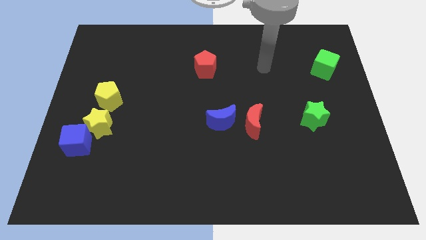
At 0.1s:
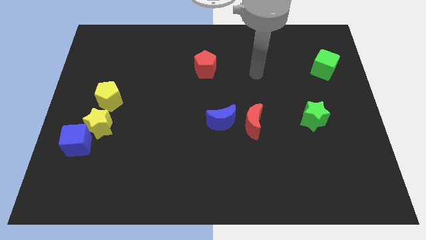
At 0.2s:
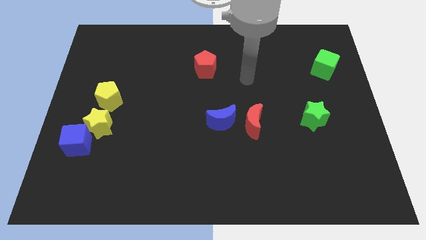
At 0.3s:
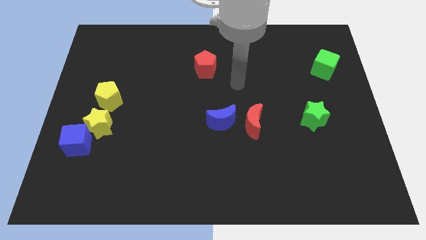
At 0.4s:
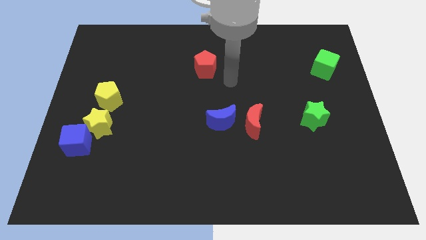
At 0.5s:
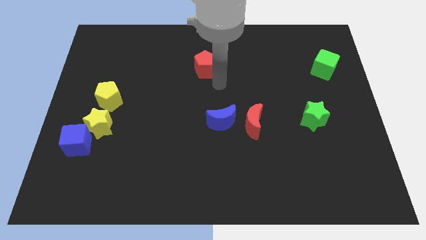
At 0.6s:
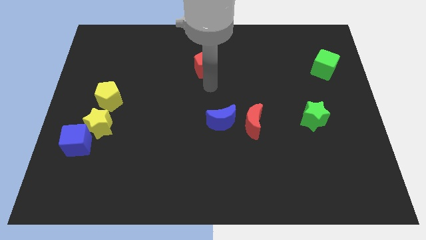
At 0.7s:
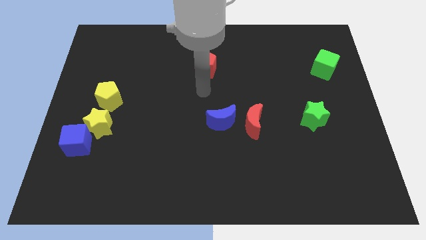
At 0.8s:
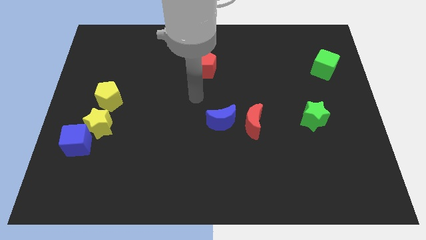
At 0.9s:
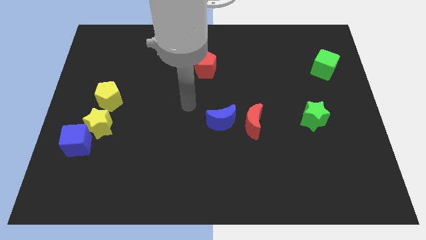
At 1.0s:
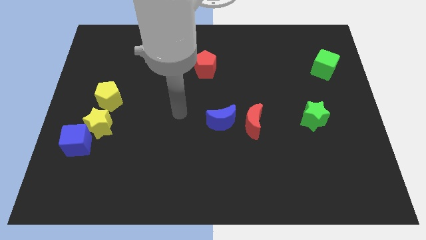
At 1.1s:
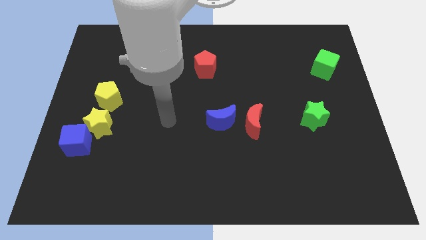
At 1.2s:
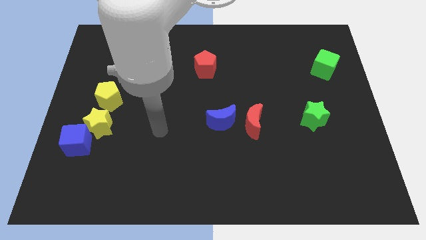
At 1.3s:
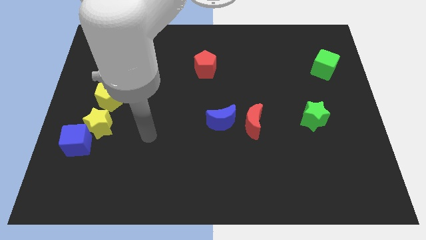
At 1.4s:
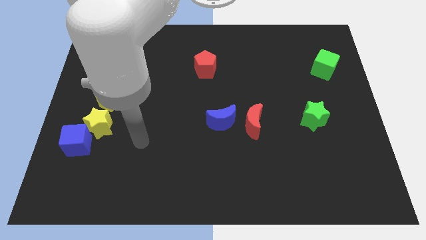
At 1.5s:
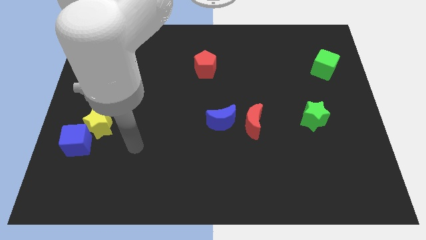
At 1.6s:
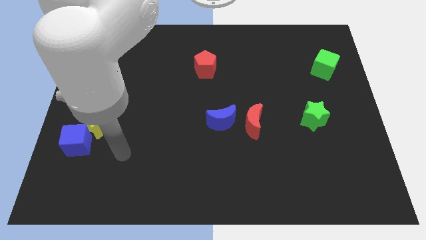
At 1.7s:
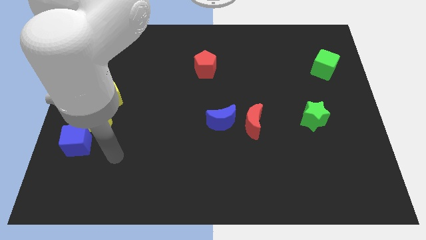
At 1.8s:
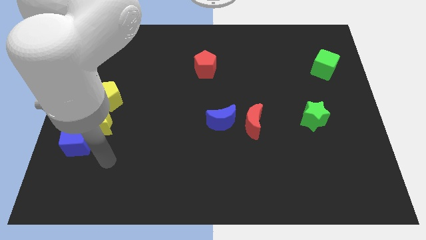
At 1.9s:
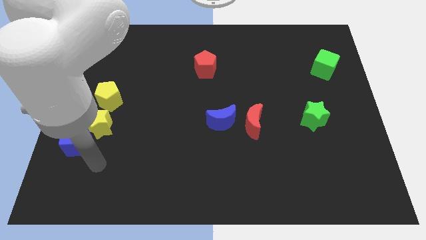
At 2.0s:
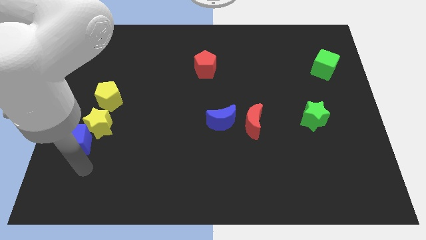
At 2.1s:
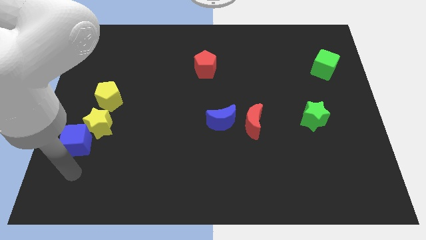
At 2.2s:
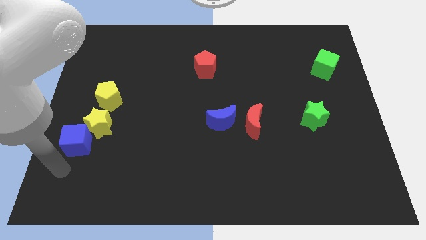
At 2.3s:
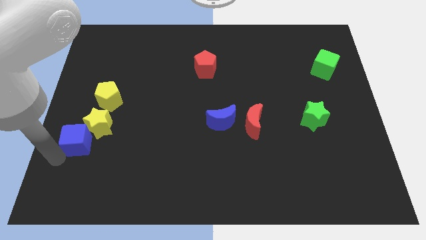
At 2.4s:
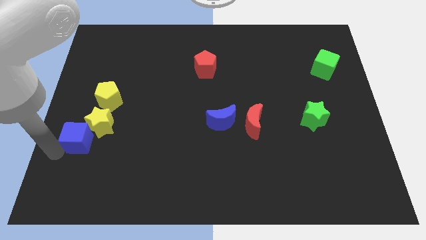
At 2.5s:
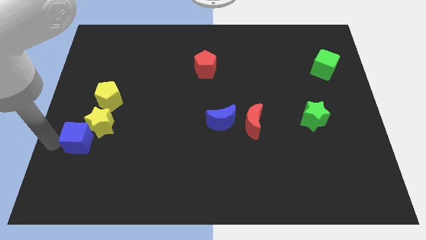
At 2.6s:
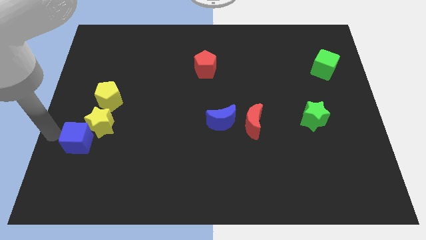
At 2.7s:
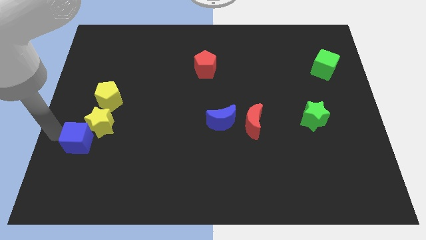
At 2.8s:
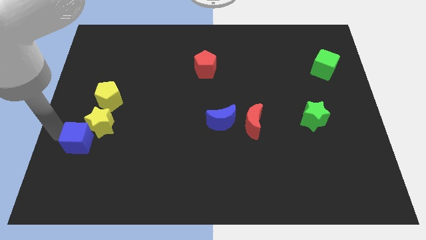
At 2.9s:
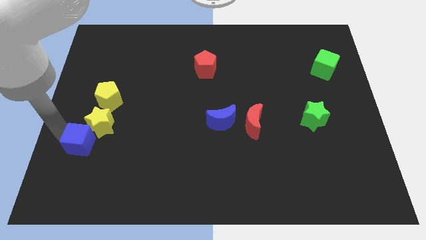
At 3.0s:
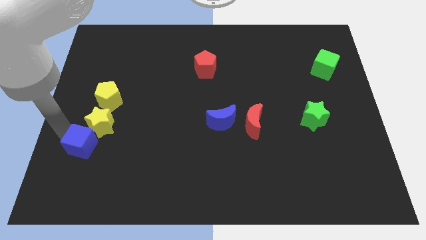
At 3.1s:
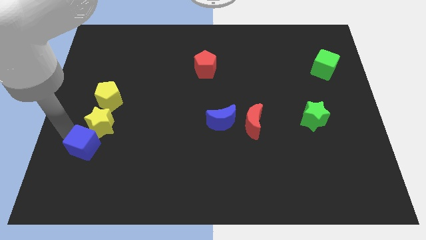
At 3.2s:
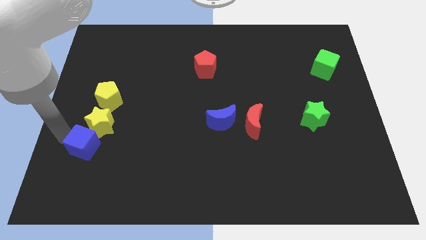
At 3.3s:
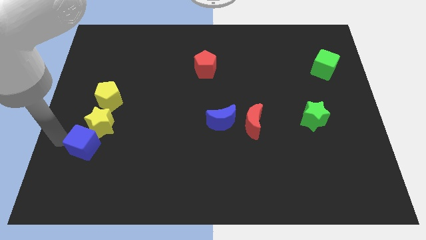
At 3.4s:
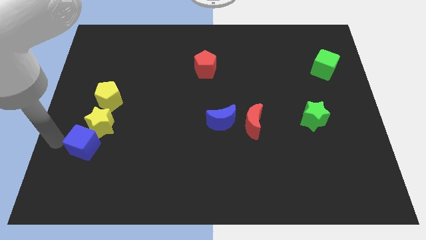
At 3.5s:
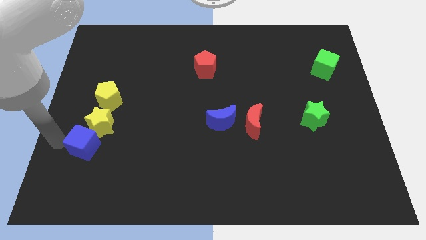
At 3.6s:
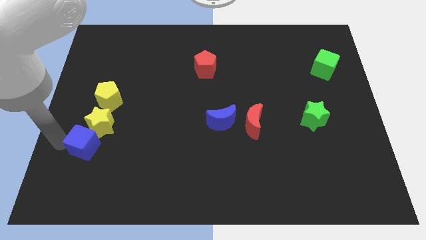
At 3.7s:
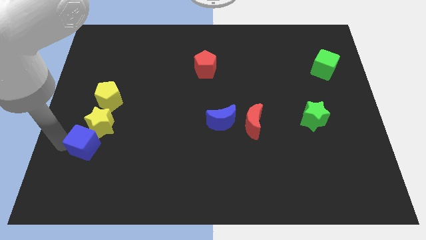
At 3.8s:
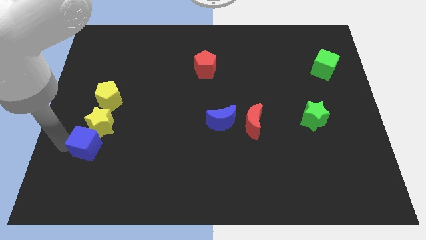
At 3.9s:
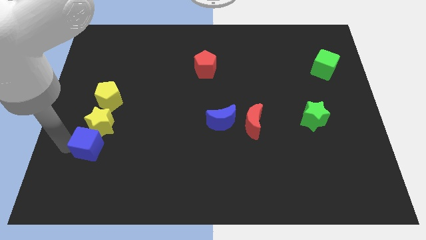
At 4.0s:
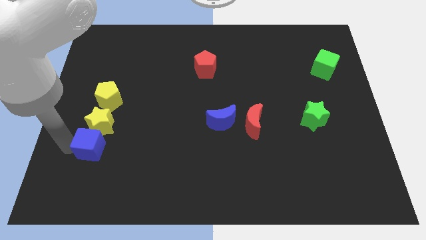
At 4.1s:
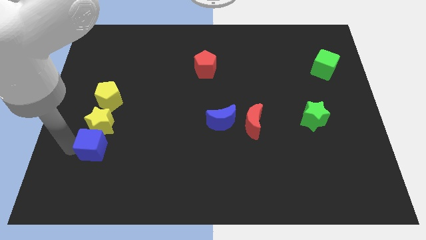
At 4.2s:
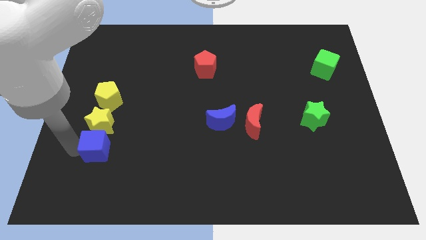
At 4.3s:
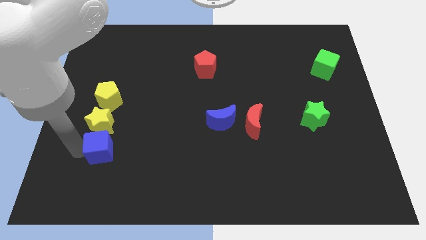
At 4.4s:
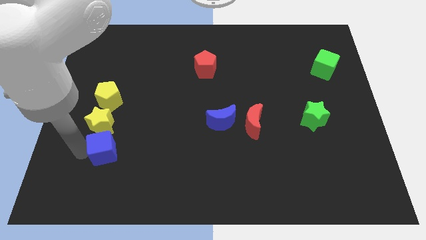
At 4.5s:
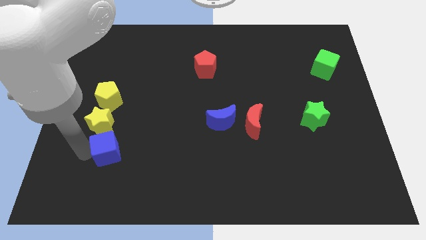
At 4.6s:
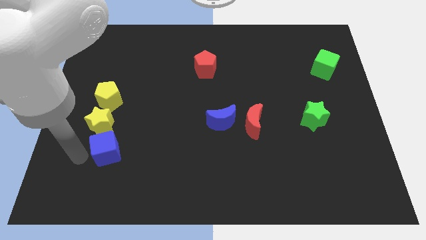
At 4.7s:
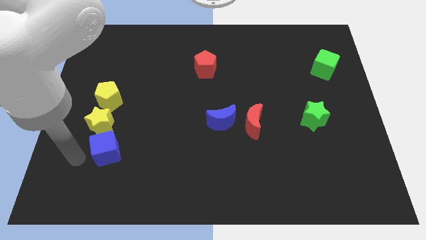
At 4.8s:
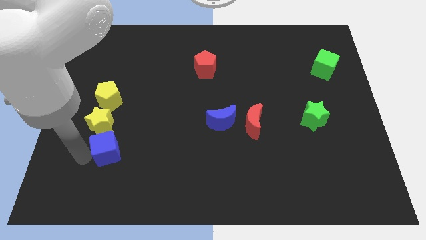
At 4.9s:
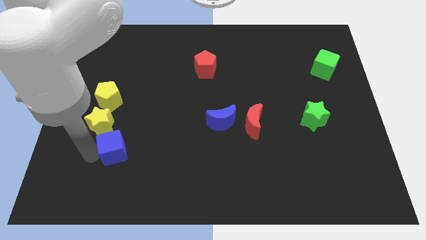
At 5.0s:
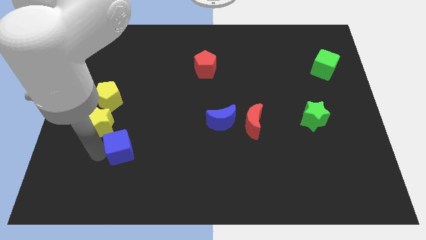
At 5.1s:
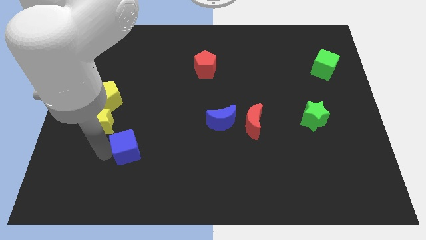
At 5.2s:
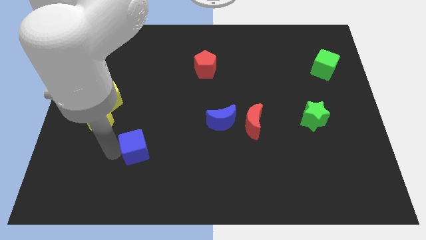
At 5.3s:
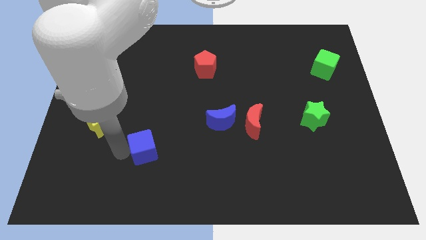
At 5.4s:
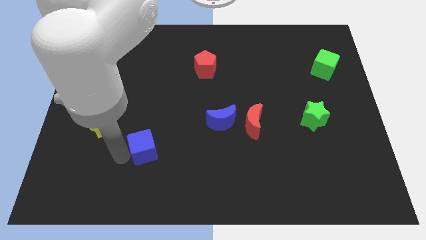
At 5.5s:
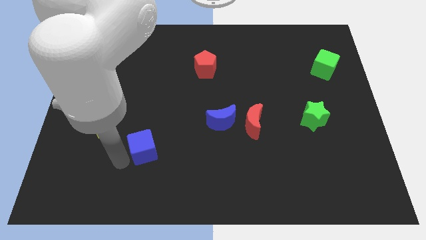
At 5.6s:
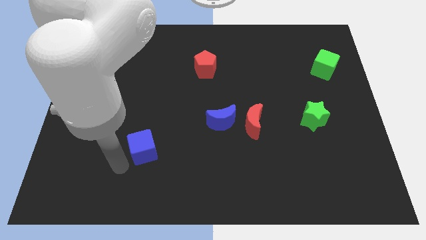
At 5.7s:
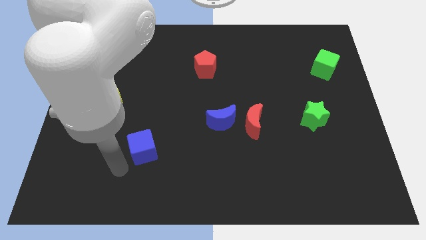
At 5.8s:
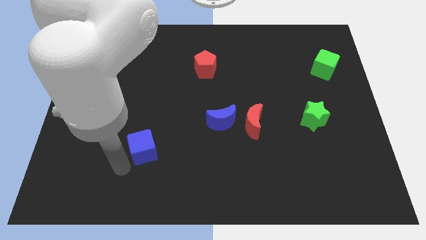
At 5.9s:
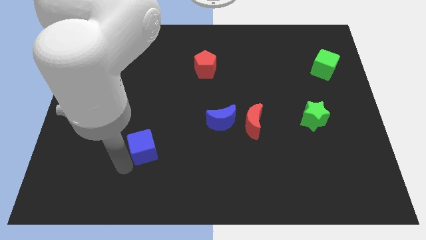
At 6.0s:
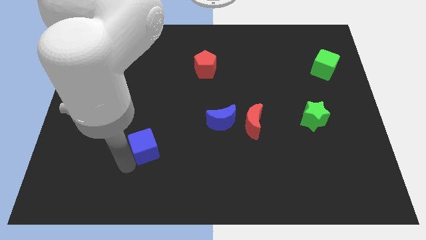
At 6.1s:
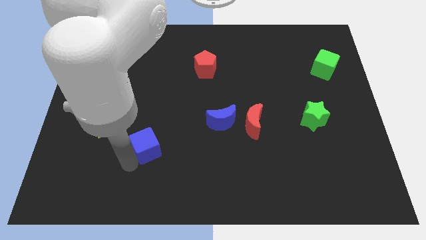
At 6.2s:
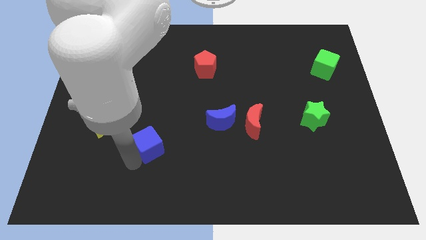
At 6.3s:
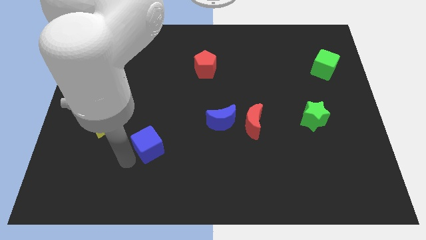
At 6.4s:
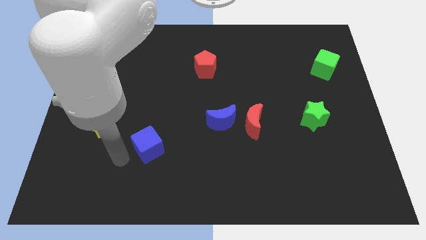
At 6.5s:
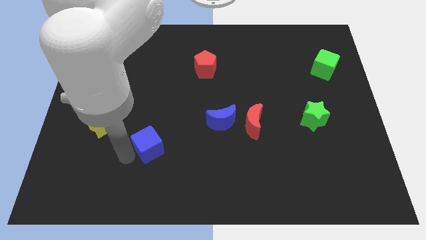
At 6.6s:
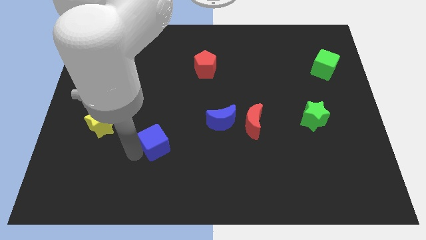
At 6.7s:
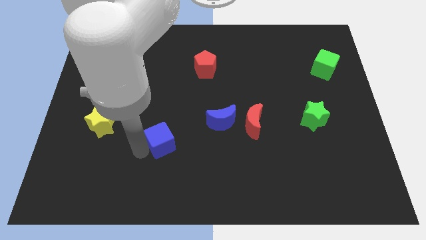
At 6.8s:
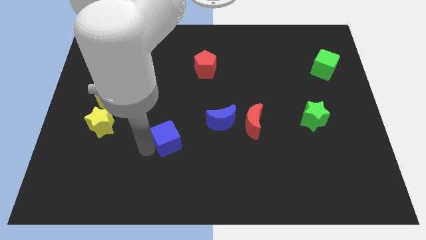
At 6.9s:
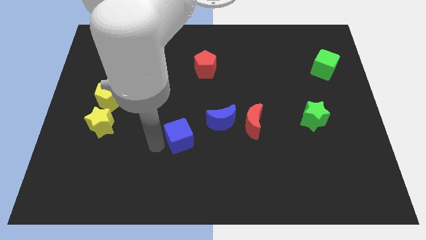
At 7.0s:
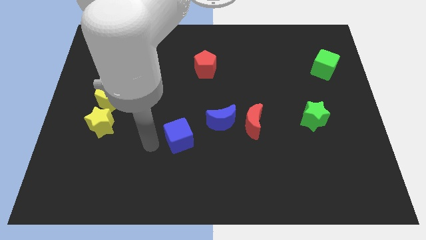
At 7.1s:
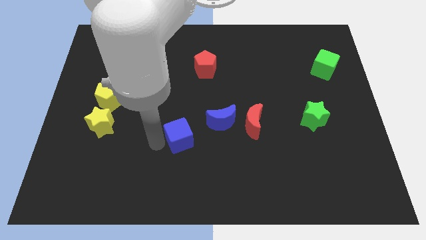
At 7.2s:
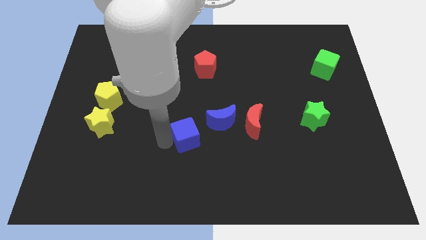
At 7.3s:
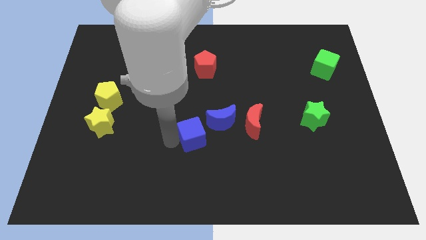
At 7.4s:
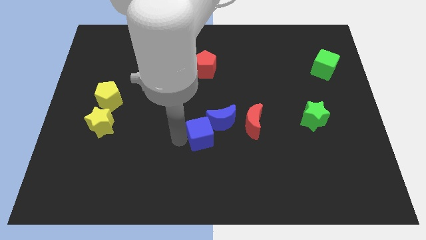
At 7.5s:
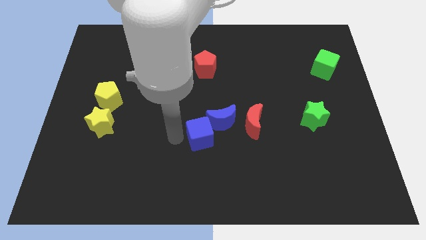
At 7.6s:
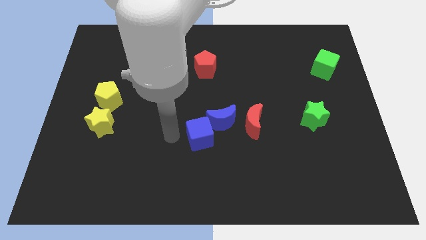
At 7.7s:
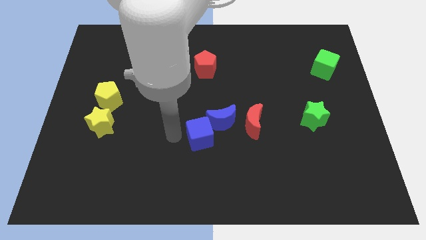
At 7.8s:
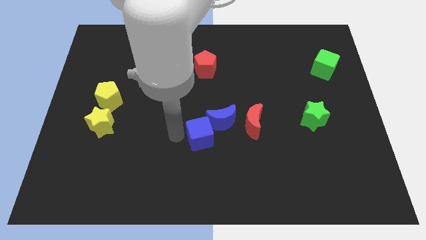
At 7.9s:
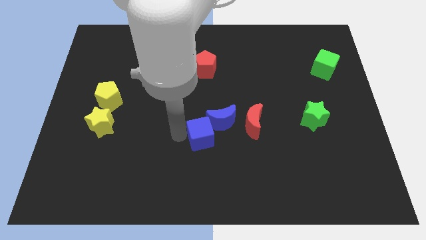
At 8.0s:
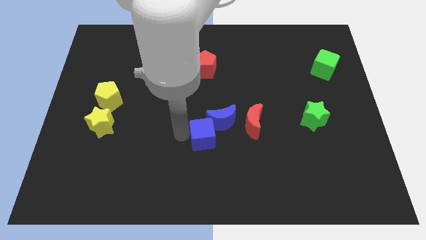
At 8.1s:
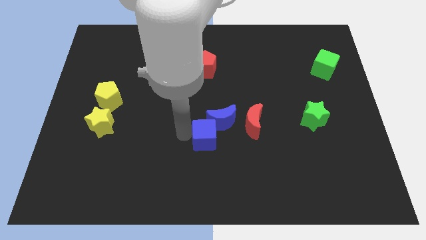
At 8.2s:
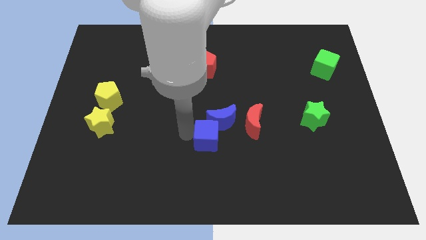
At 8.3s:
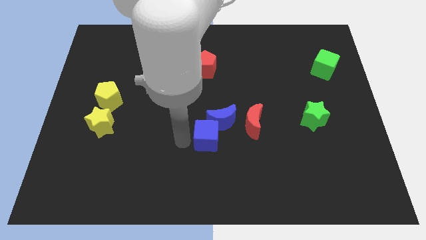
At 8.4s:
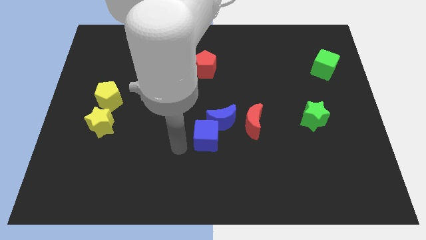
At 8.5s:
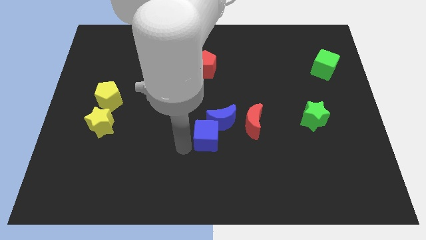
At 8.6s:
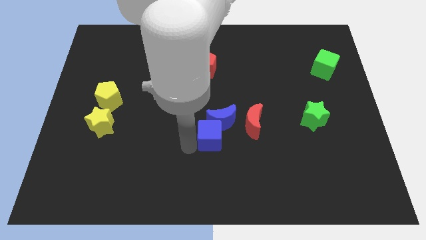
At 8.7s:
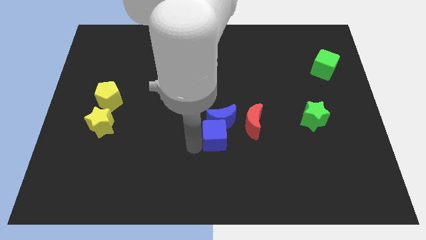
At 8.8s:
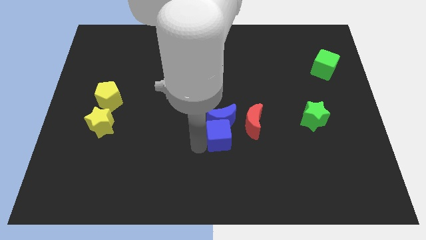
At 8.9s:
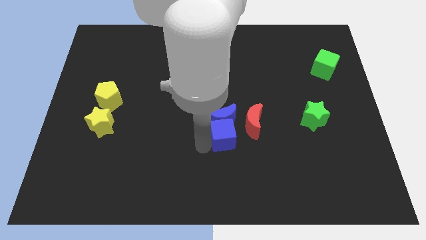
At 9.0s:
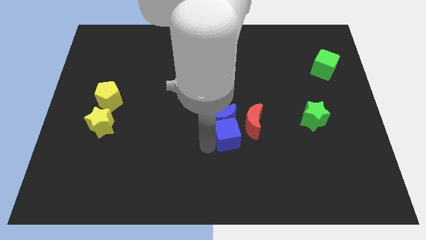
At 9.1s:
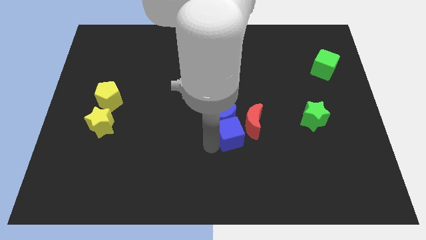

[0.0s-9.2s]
push the blue cube towards the red moon
